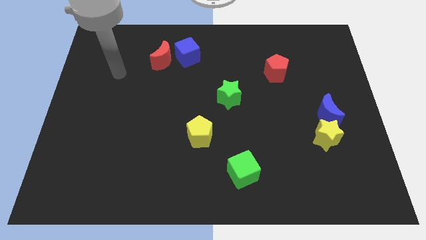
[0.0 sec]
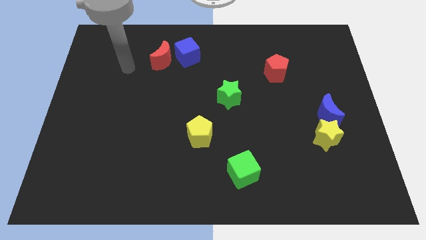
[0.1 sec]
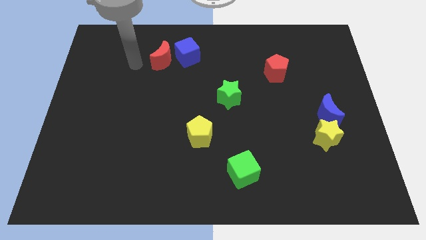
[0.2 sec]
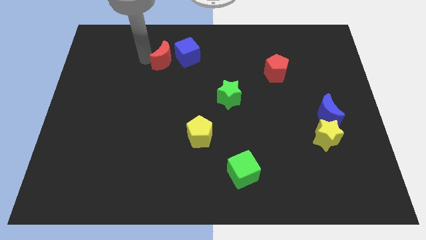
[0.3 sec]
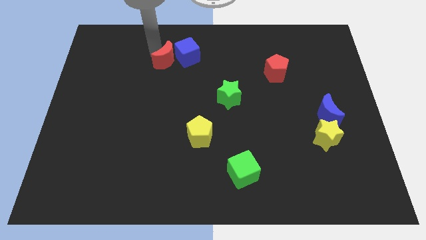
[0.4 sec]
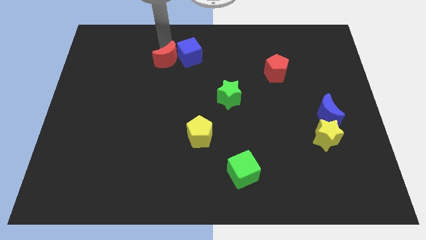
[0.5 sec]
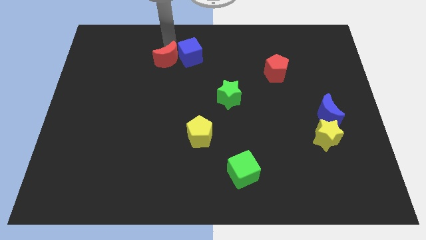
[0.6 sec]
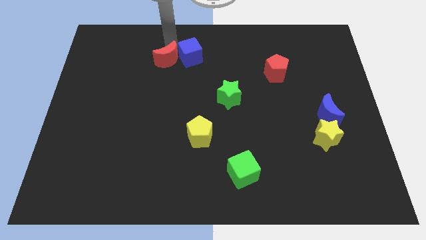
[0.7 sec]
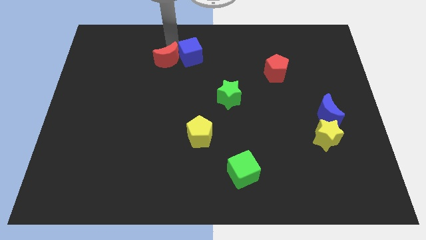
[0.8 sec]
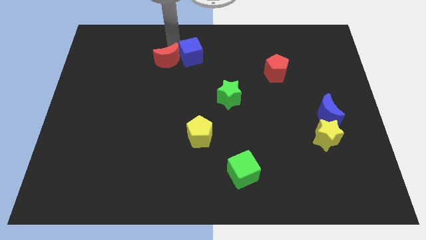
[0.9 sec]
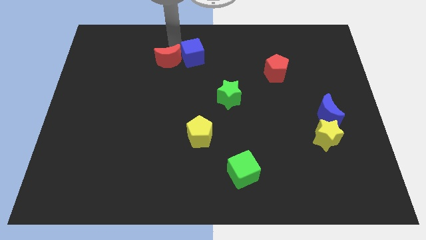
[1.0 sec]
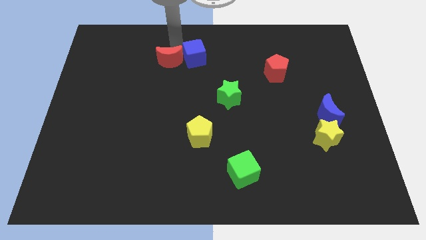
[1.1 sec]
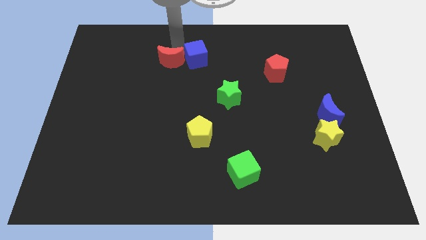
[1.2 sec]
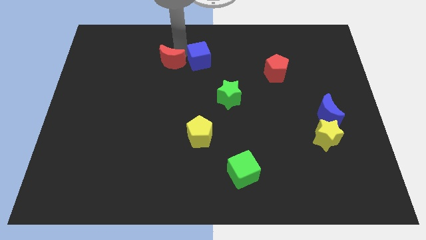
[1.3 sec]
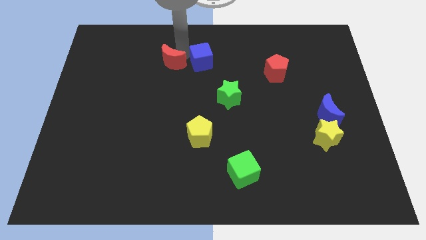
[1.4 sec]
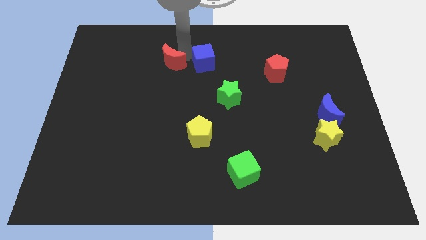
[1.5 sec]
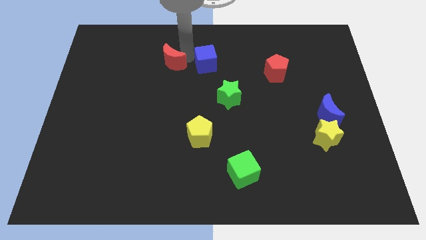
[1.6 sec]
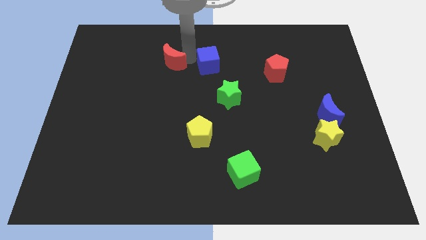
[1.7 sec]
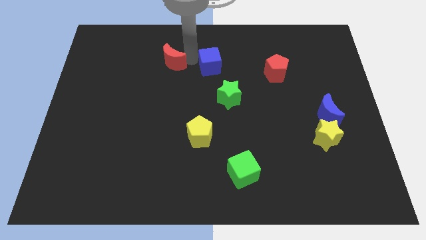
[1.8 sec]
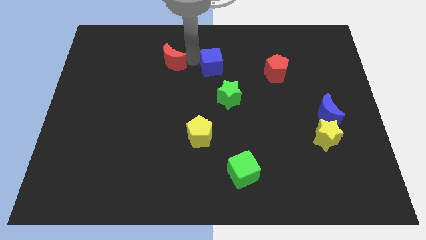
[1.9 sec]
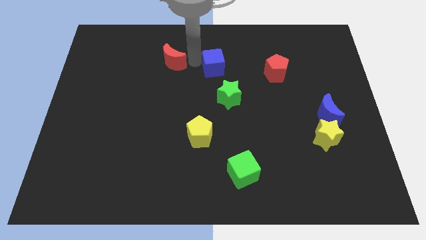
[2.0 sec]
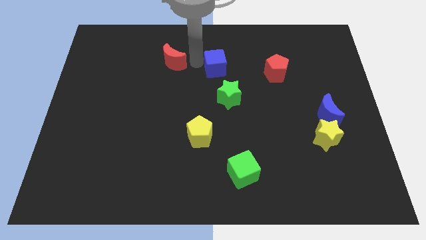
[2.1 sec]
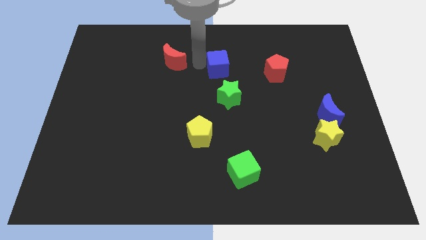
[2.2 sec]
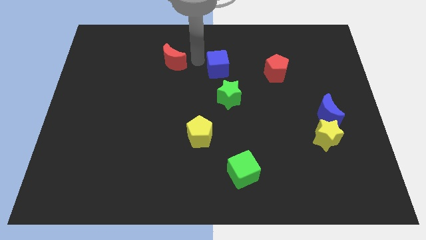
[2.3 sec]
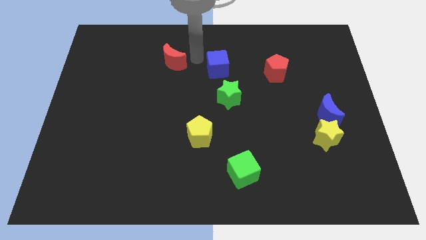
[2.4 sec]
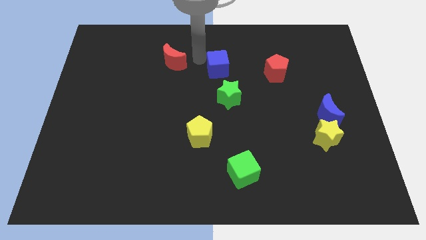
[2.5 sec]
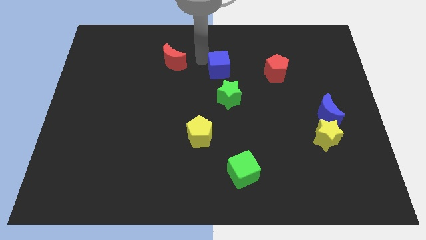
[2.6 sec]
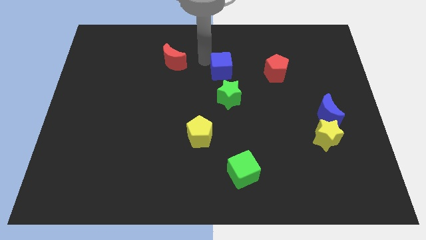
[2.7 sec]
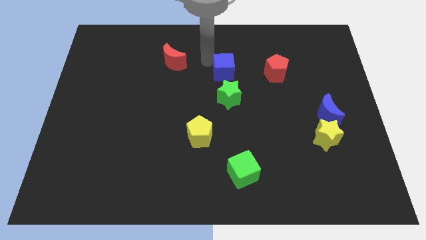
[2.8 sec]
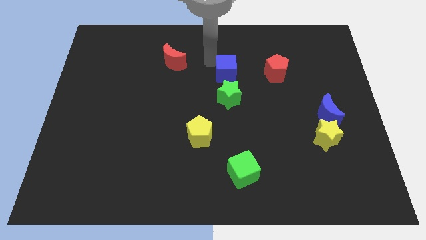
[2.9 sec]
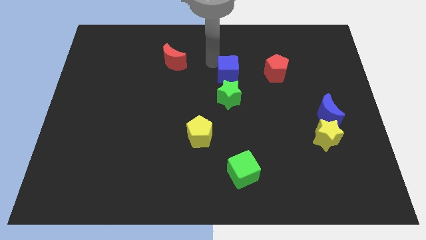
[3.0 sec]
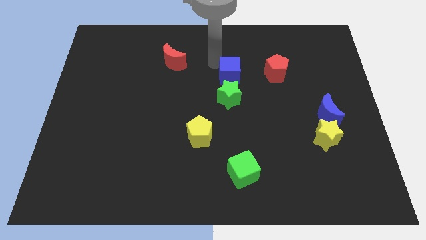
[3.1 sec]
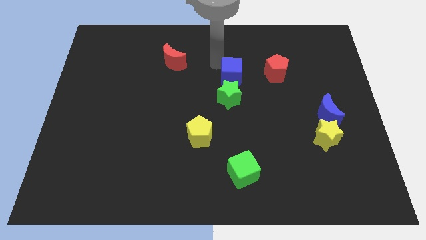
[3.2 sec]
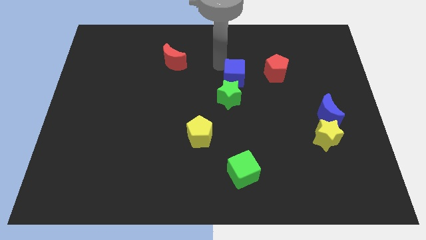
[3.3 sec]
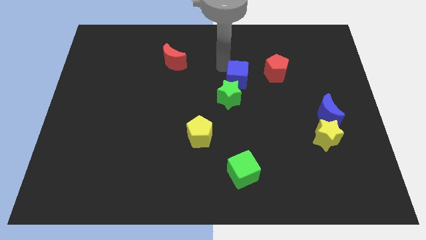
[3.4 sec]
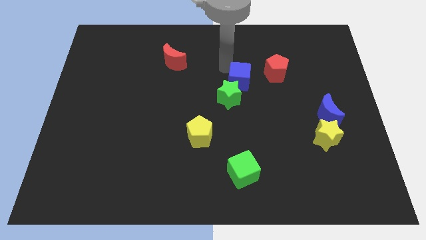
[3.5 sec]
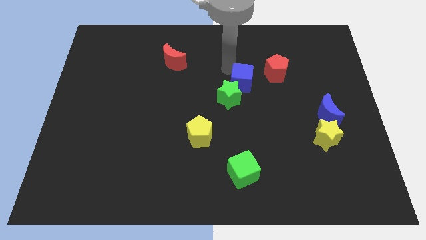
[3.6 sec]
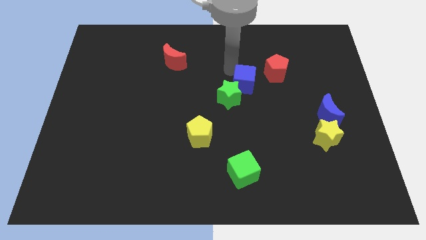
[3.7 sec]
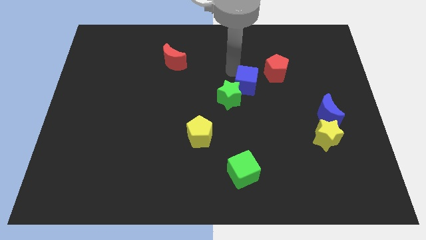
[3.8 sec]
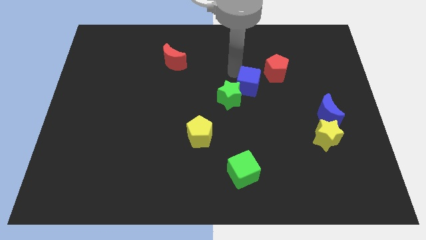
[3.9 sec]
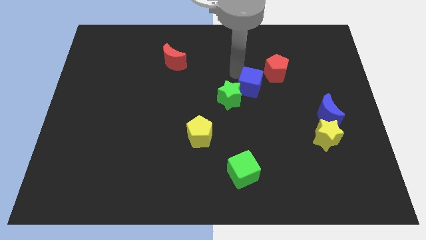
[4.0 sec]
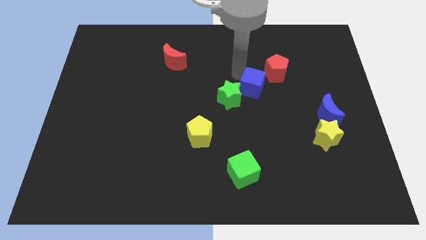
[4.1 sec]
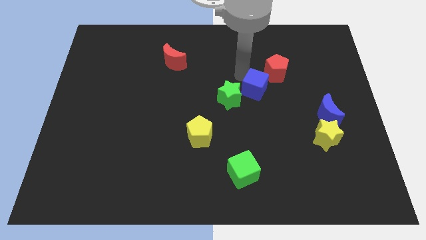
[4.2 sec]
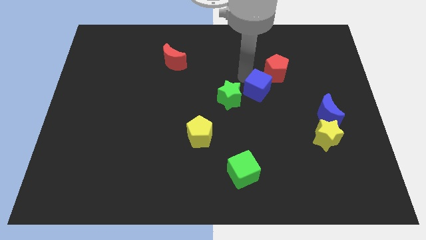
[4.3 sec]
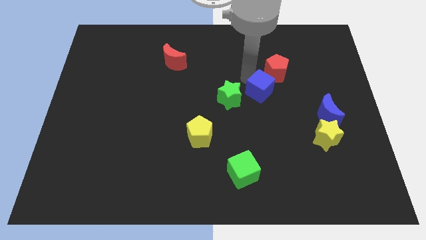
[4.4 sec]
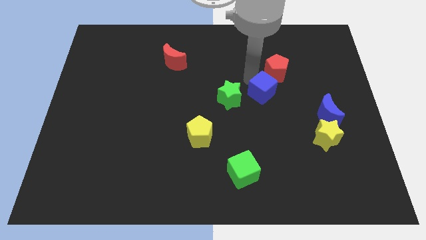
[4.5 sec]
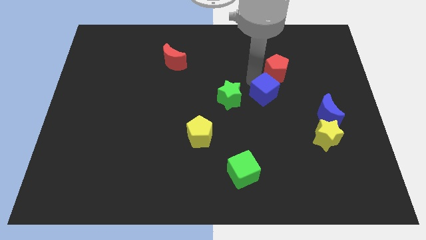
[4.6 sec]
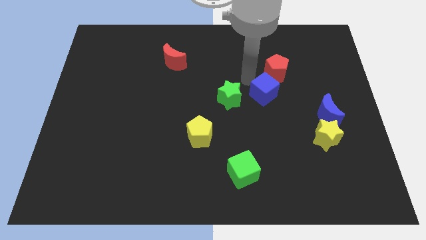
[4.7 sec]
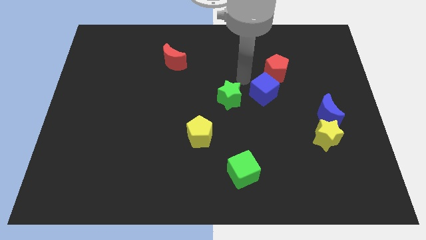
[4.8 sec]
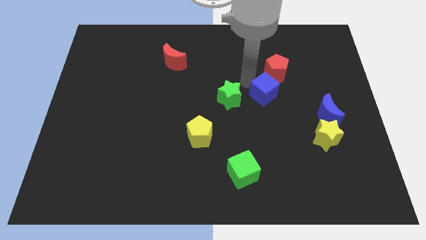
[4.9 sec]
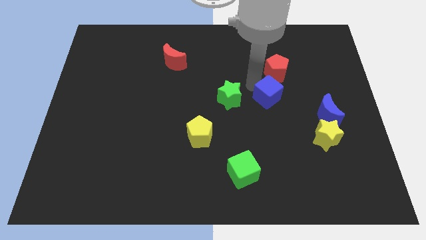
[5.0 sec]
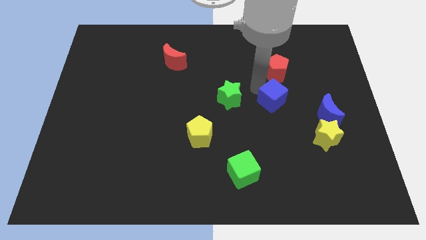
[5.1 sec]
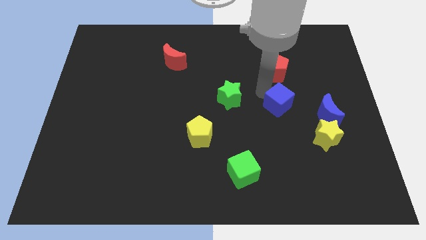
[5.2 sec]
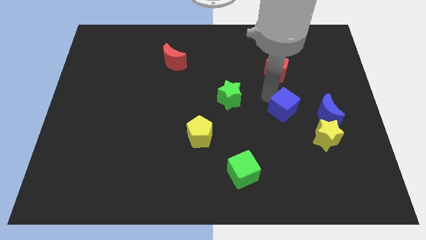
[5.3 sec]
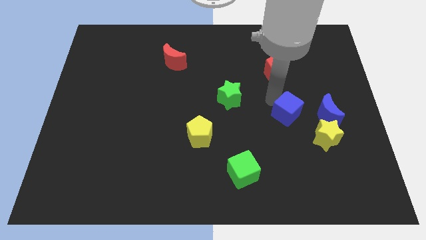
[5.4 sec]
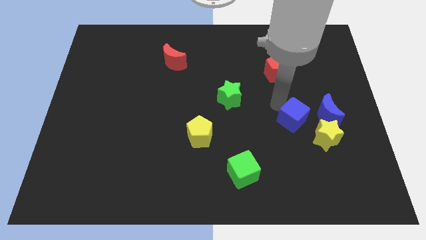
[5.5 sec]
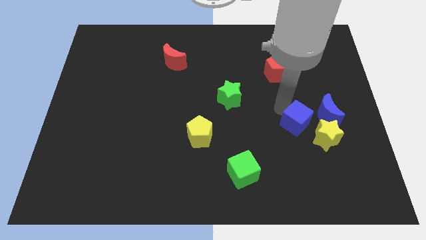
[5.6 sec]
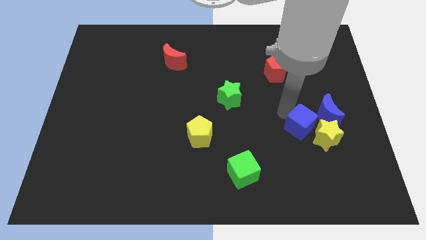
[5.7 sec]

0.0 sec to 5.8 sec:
put the blue cube towards the yellow star

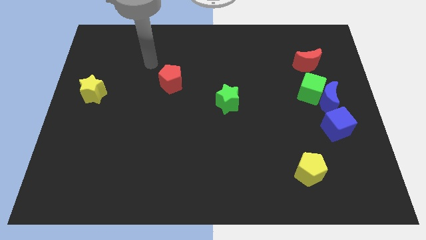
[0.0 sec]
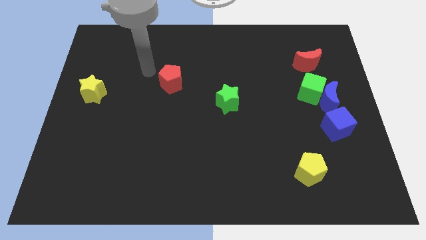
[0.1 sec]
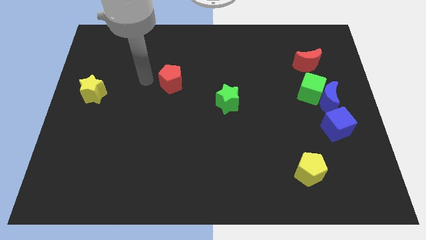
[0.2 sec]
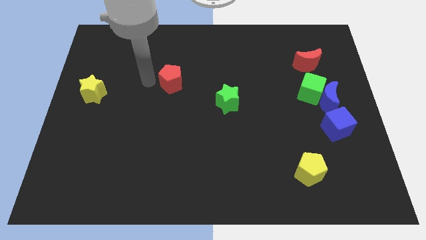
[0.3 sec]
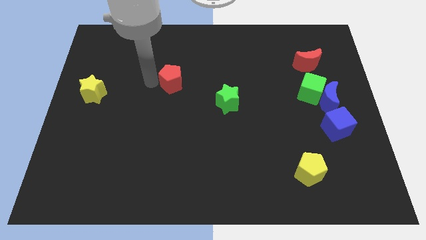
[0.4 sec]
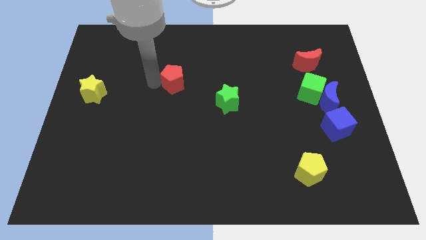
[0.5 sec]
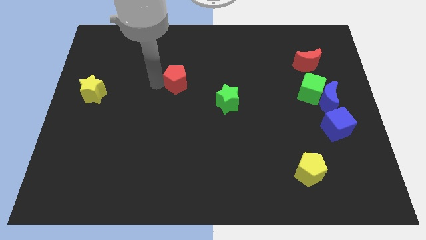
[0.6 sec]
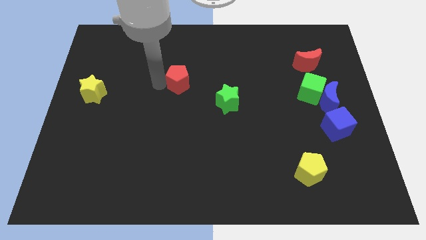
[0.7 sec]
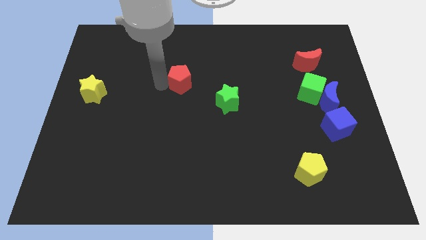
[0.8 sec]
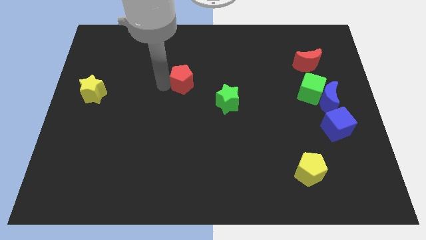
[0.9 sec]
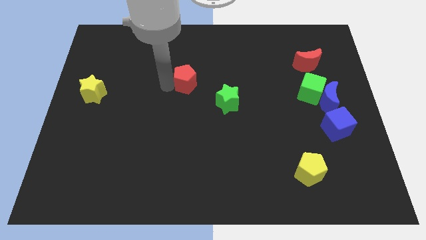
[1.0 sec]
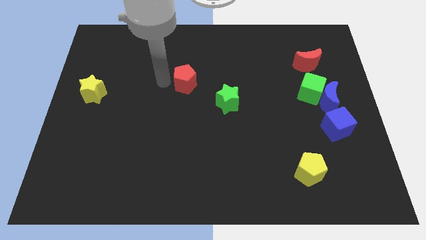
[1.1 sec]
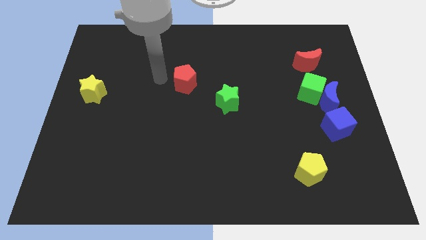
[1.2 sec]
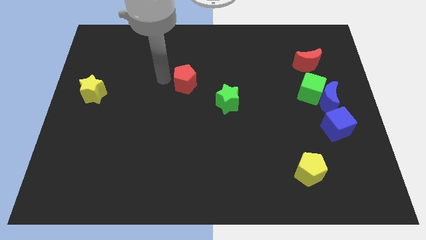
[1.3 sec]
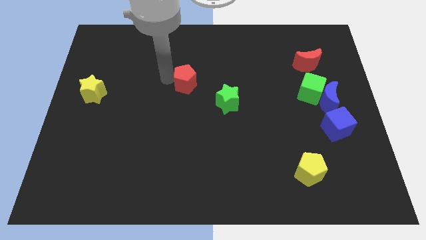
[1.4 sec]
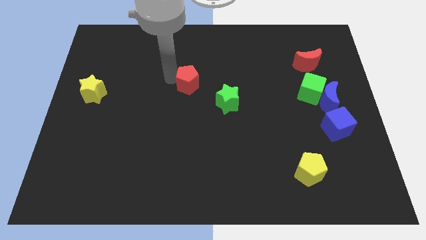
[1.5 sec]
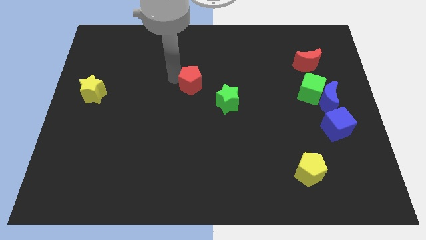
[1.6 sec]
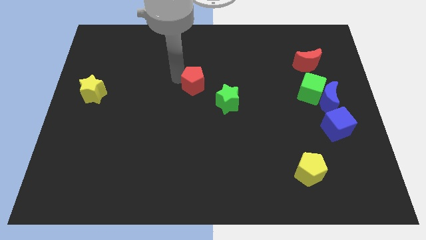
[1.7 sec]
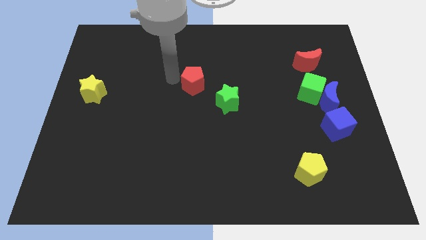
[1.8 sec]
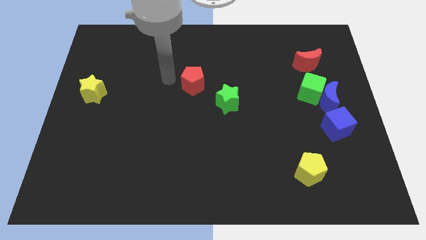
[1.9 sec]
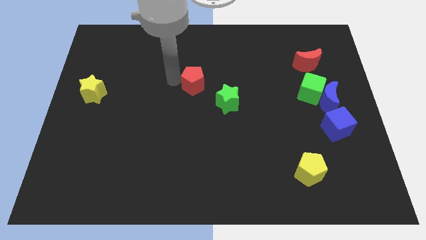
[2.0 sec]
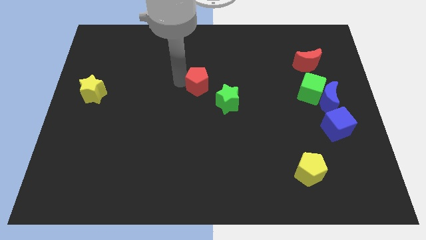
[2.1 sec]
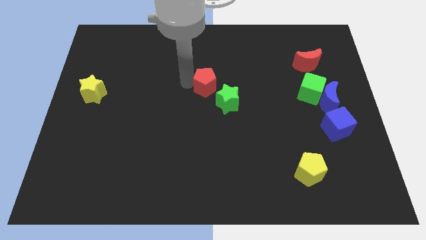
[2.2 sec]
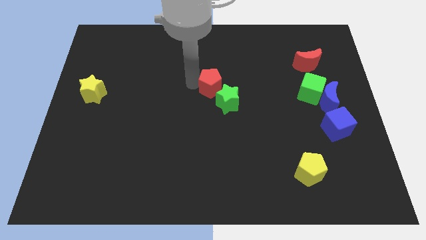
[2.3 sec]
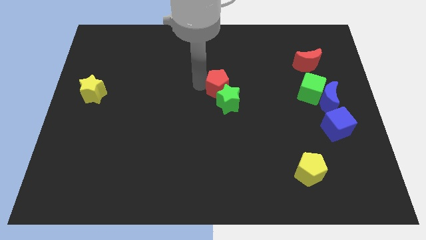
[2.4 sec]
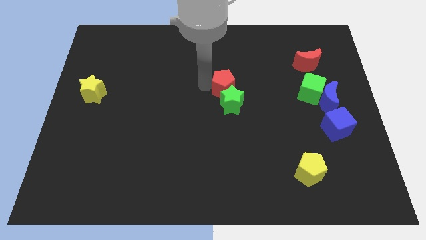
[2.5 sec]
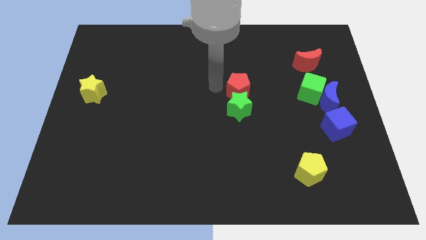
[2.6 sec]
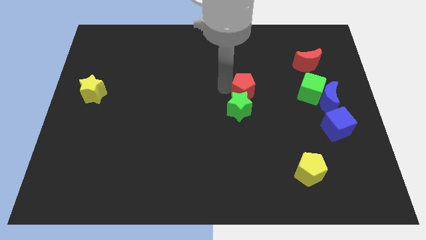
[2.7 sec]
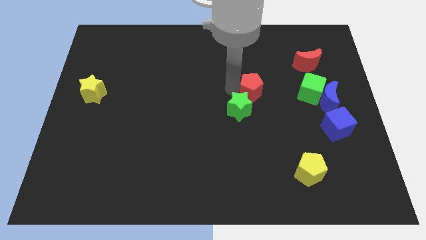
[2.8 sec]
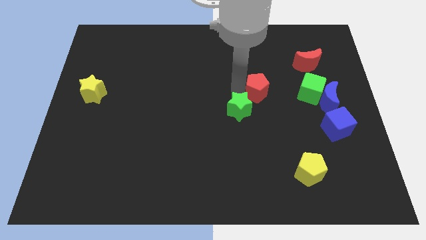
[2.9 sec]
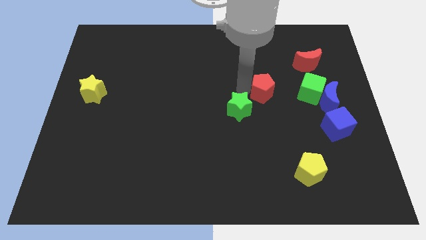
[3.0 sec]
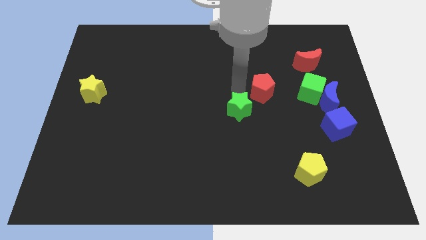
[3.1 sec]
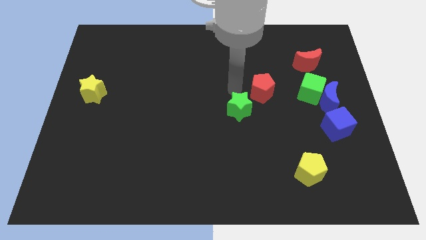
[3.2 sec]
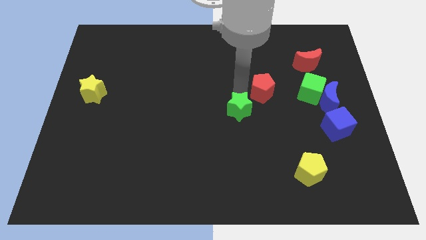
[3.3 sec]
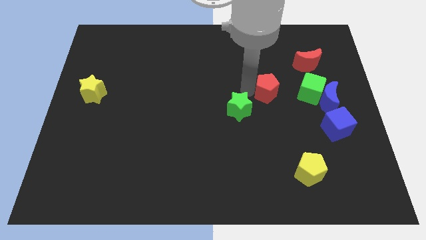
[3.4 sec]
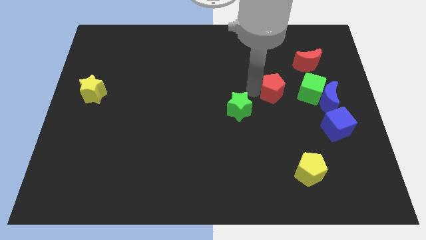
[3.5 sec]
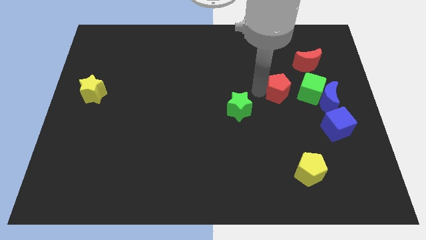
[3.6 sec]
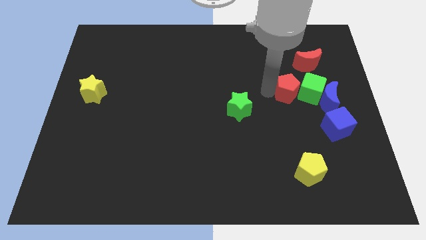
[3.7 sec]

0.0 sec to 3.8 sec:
push the red pentagon towards the green cube
